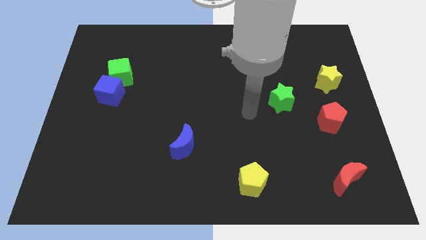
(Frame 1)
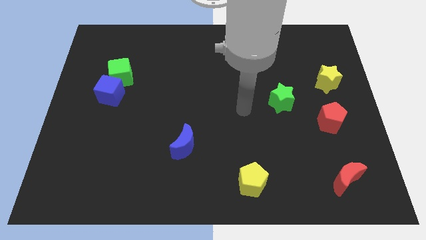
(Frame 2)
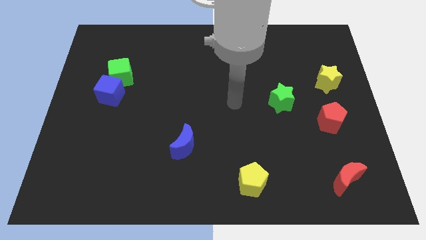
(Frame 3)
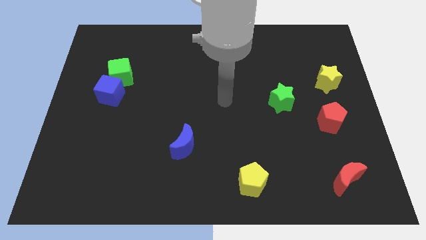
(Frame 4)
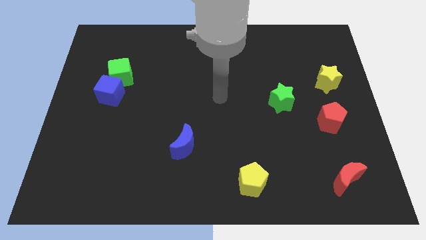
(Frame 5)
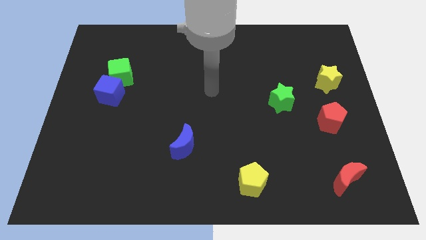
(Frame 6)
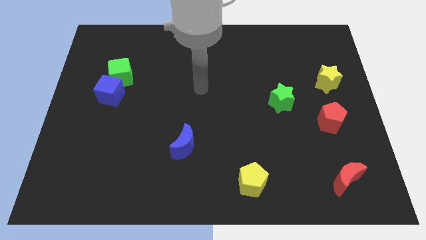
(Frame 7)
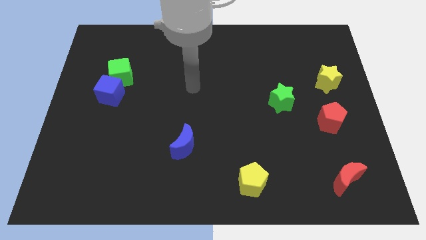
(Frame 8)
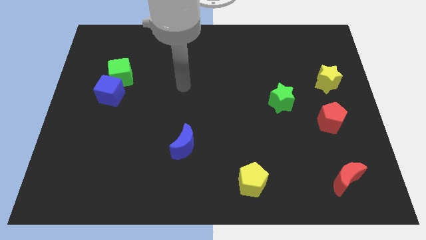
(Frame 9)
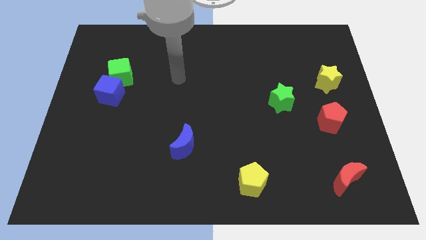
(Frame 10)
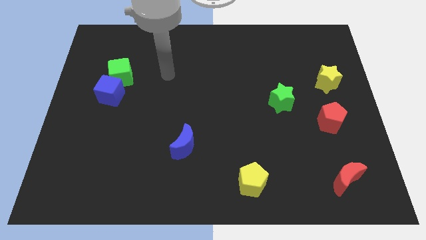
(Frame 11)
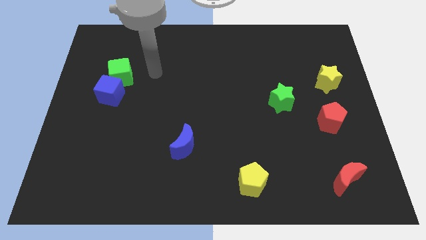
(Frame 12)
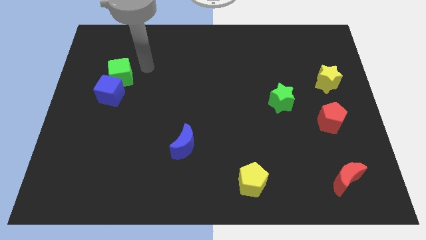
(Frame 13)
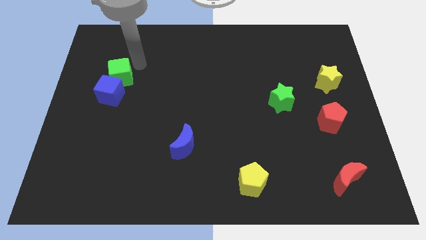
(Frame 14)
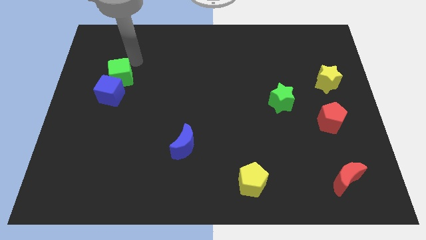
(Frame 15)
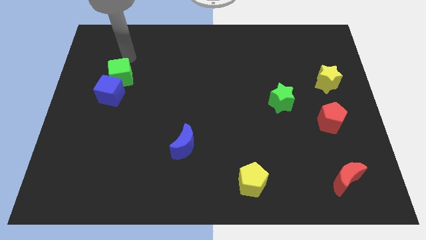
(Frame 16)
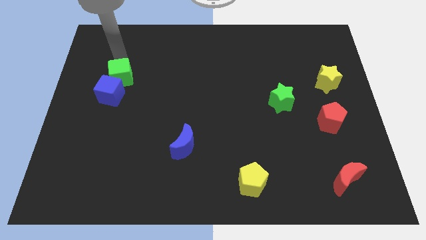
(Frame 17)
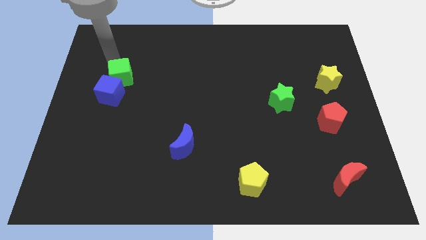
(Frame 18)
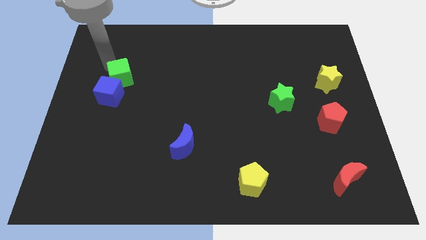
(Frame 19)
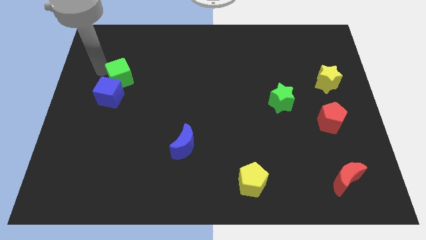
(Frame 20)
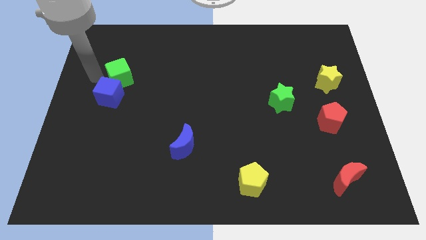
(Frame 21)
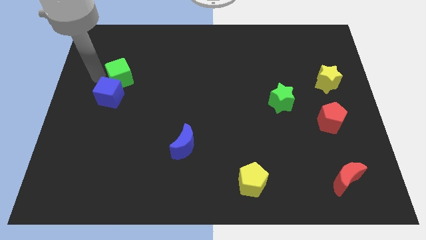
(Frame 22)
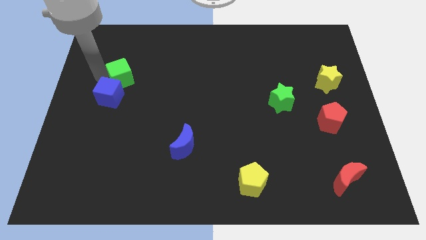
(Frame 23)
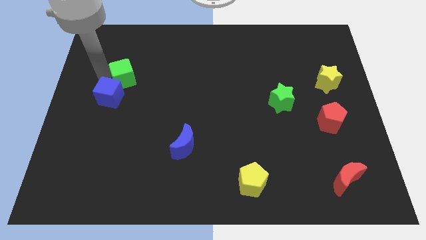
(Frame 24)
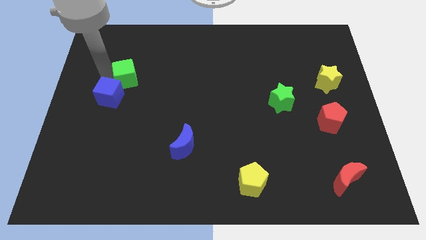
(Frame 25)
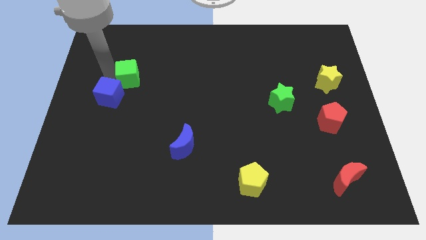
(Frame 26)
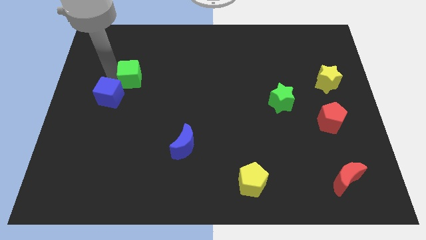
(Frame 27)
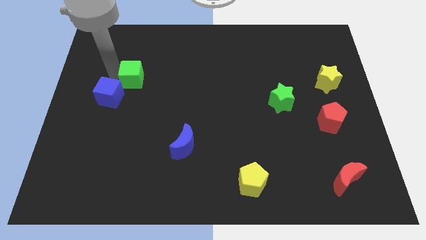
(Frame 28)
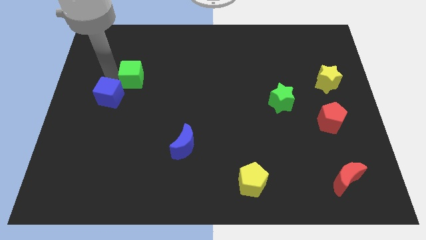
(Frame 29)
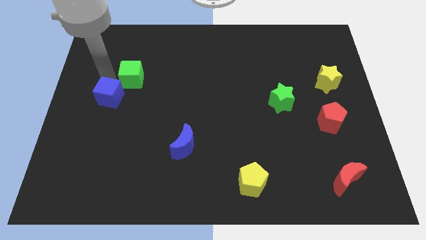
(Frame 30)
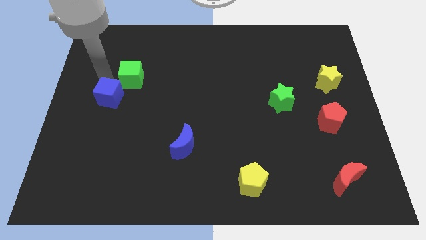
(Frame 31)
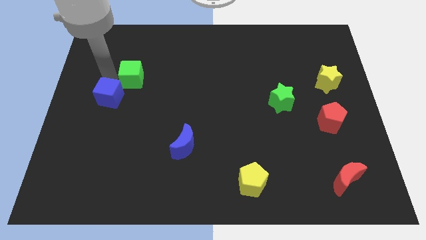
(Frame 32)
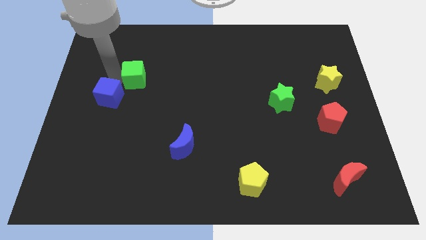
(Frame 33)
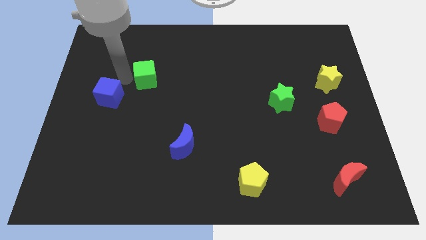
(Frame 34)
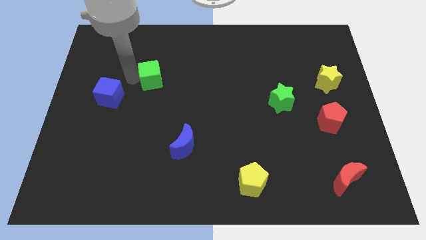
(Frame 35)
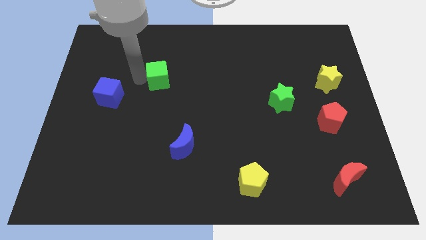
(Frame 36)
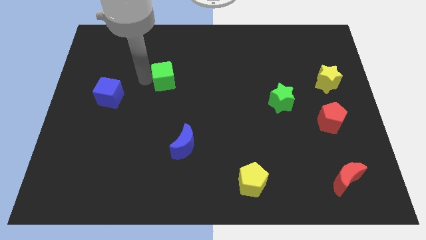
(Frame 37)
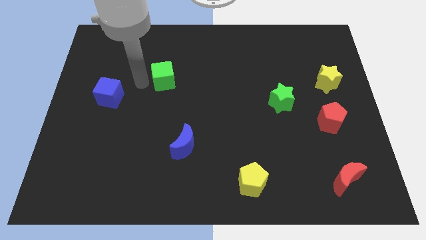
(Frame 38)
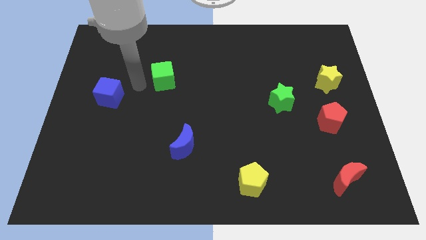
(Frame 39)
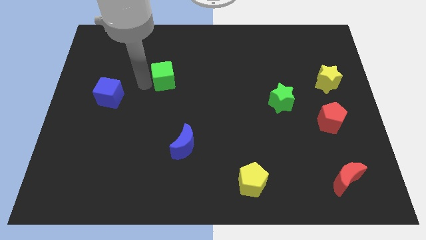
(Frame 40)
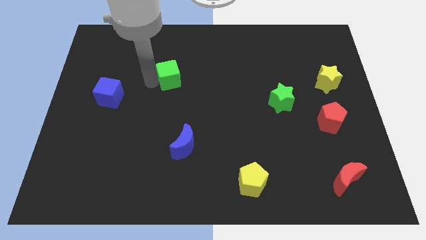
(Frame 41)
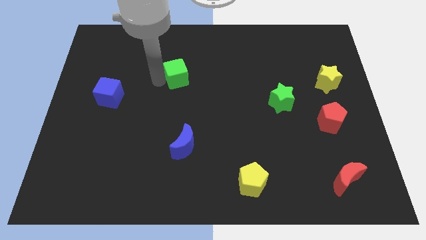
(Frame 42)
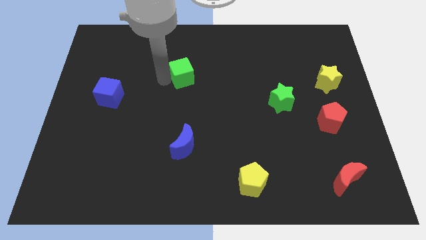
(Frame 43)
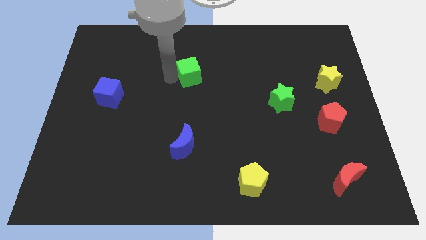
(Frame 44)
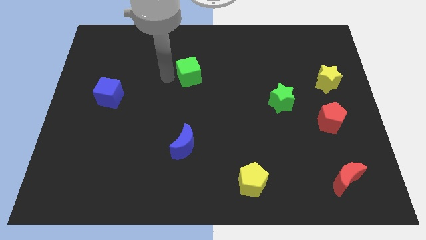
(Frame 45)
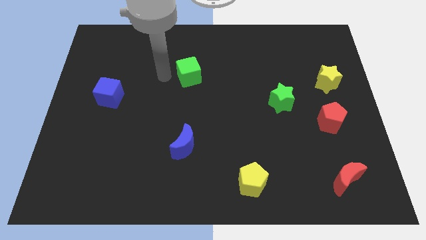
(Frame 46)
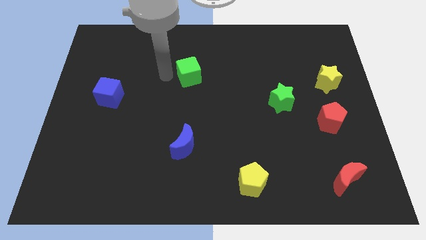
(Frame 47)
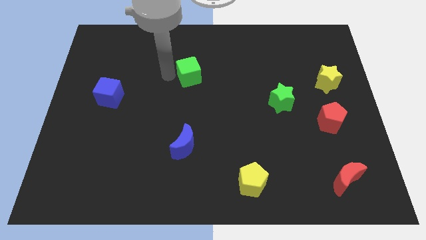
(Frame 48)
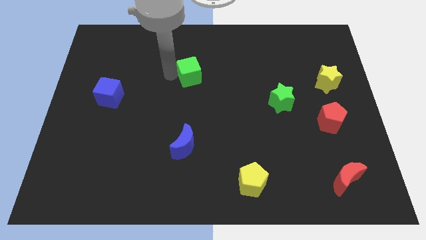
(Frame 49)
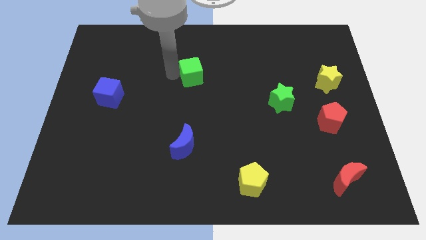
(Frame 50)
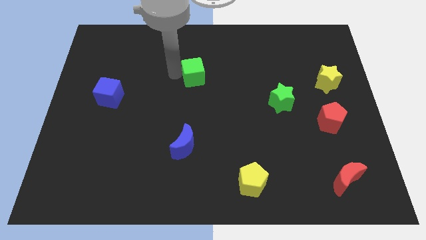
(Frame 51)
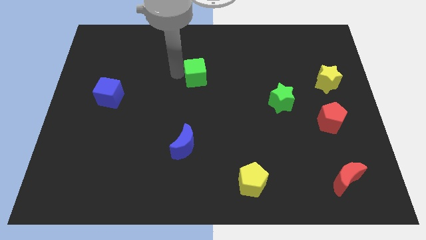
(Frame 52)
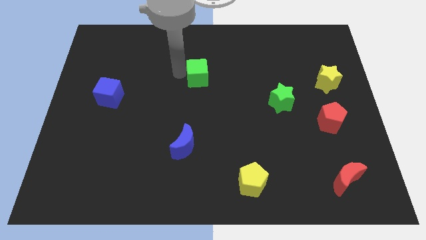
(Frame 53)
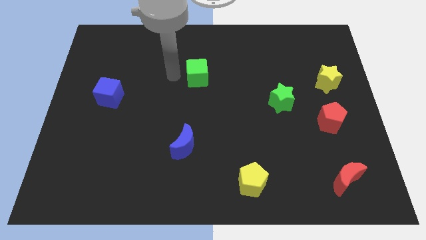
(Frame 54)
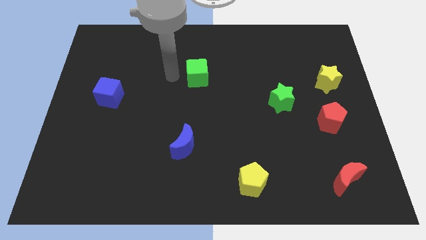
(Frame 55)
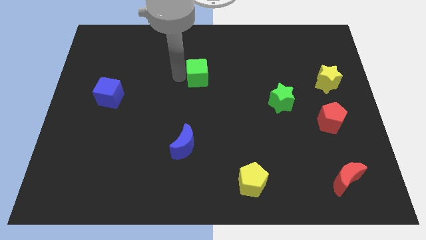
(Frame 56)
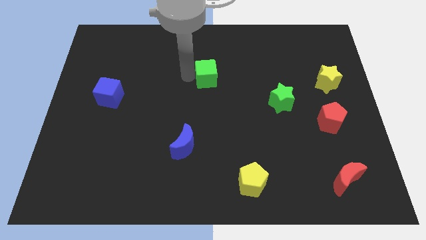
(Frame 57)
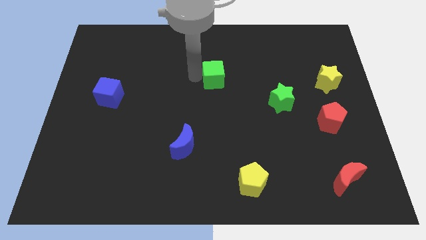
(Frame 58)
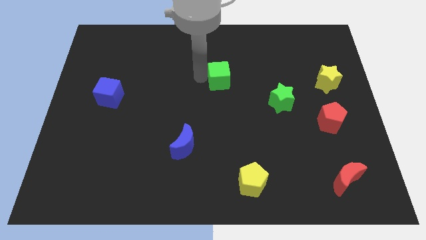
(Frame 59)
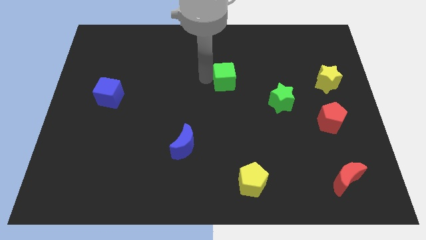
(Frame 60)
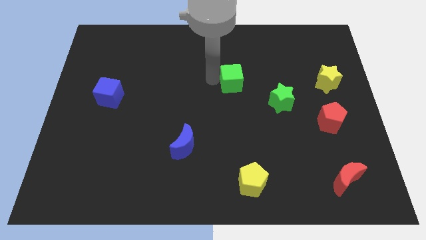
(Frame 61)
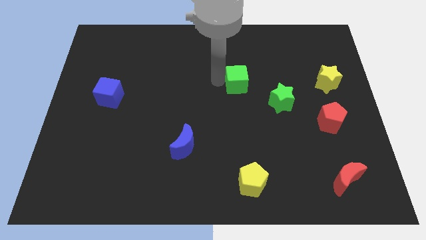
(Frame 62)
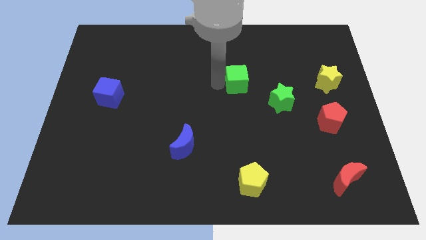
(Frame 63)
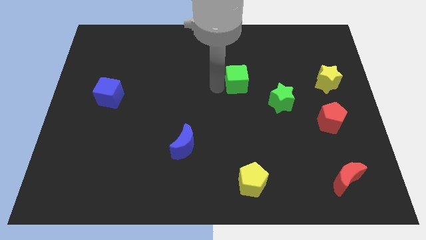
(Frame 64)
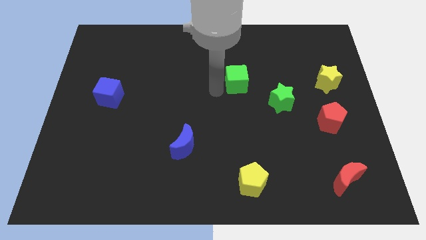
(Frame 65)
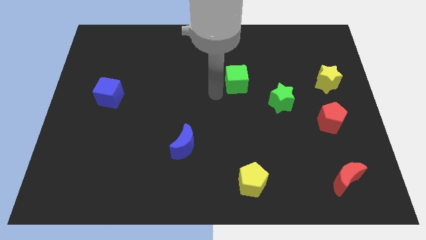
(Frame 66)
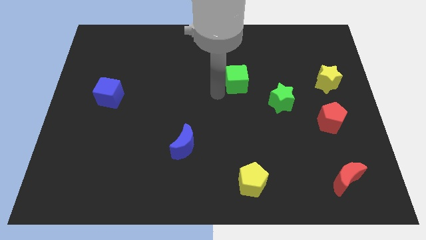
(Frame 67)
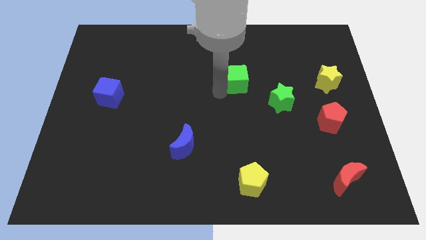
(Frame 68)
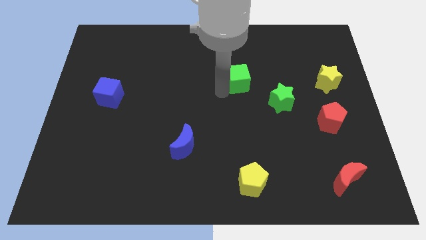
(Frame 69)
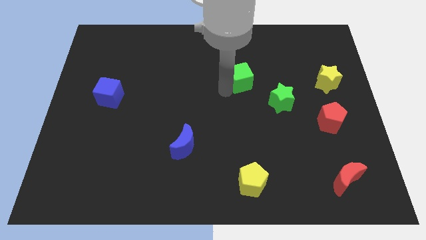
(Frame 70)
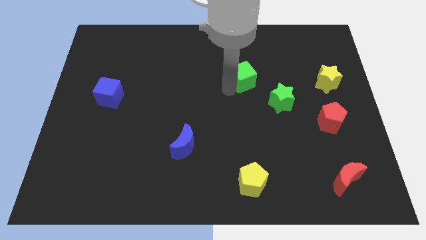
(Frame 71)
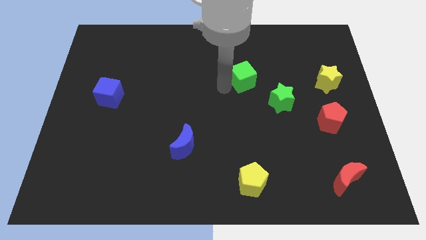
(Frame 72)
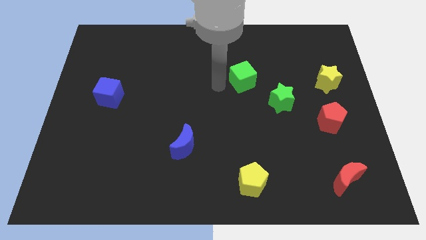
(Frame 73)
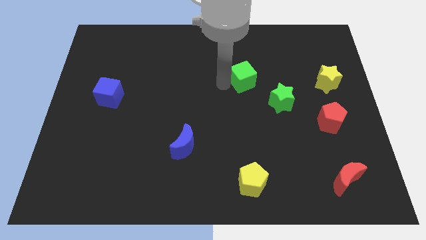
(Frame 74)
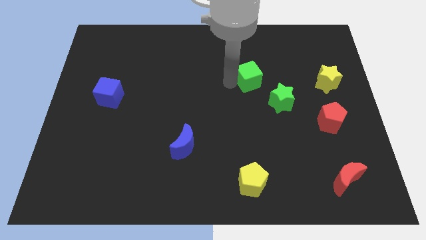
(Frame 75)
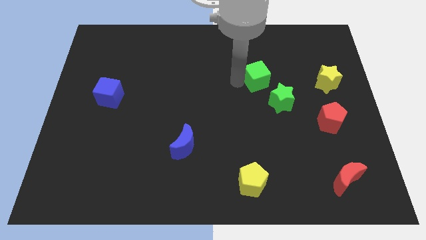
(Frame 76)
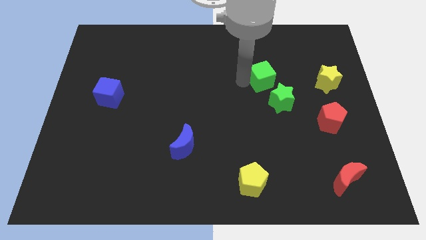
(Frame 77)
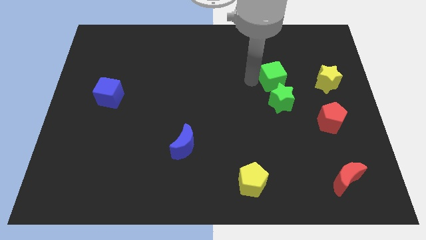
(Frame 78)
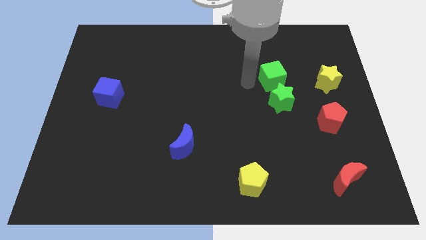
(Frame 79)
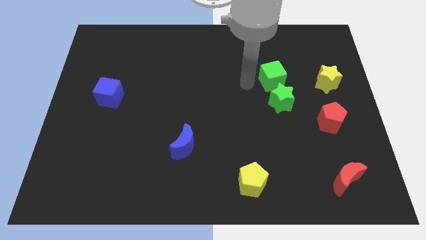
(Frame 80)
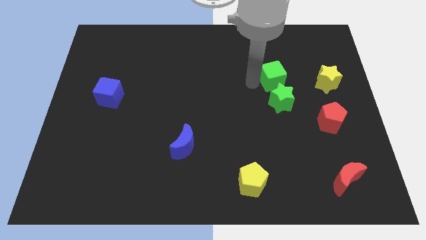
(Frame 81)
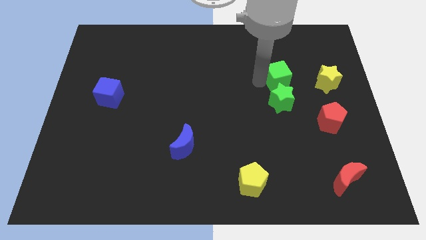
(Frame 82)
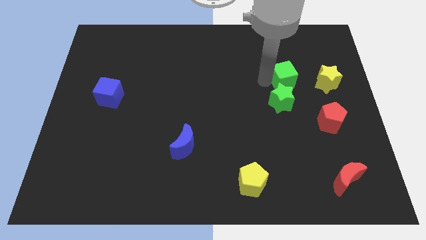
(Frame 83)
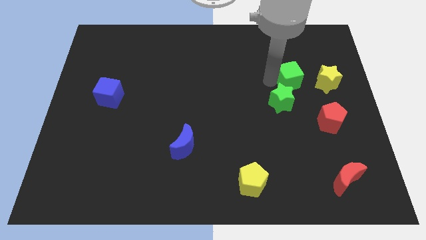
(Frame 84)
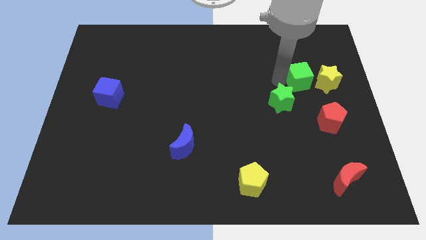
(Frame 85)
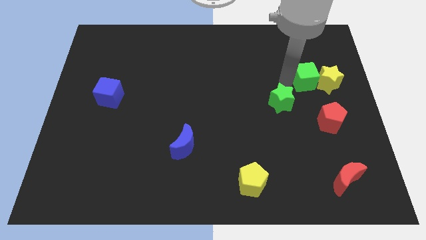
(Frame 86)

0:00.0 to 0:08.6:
put the green cube above the red pentagon
